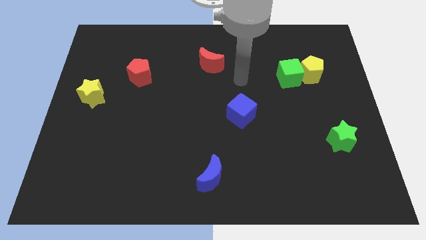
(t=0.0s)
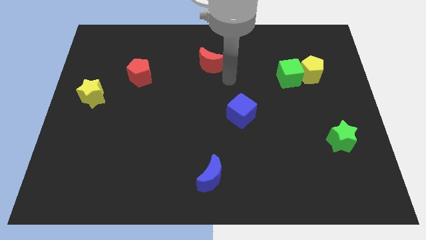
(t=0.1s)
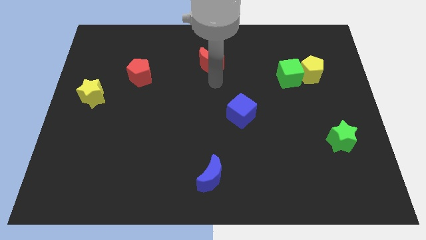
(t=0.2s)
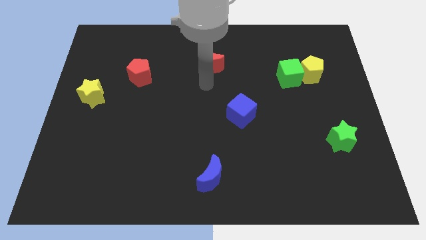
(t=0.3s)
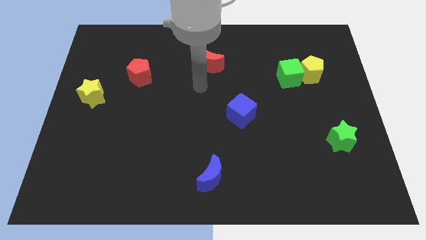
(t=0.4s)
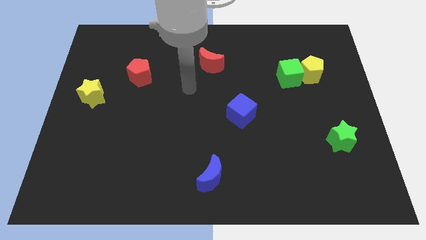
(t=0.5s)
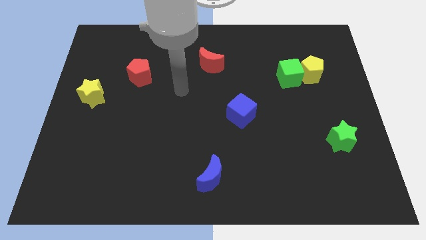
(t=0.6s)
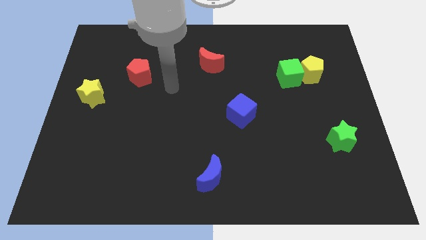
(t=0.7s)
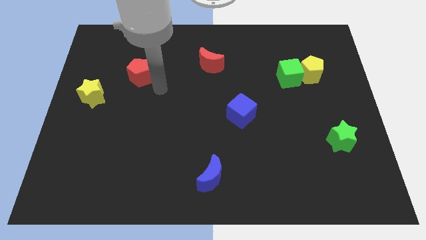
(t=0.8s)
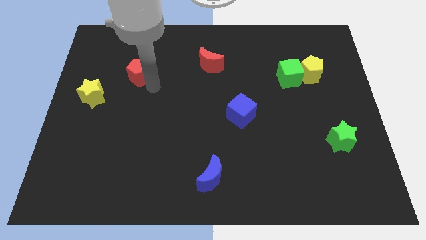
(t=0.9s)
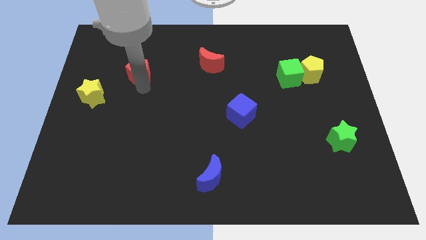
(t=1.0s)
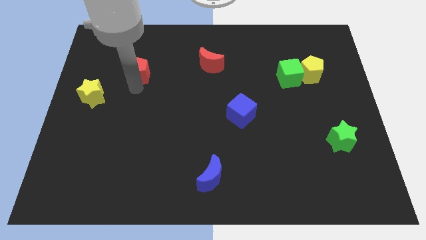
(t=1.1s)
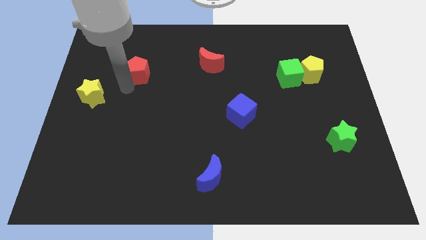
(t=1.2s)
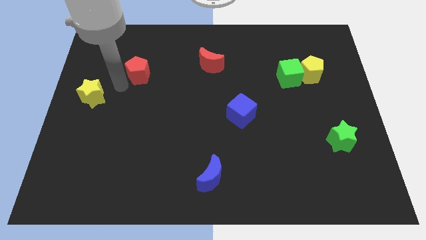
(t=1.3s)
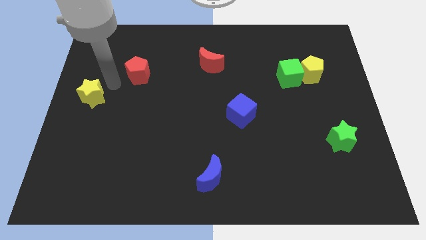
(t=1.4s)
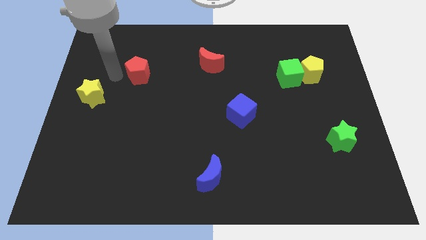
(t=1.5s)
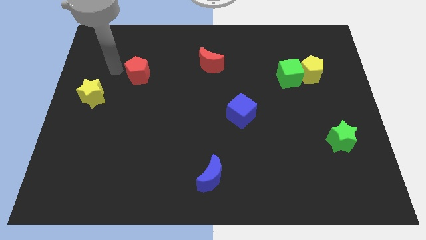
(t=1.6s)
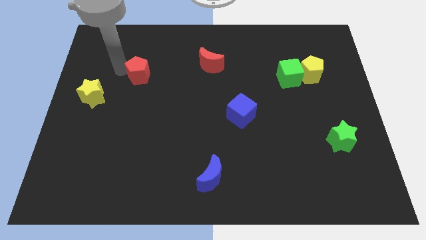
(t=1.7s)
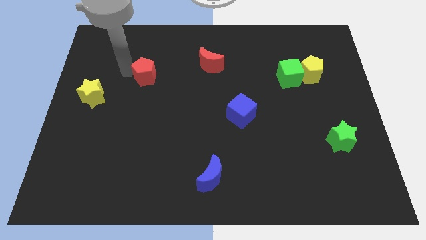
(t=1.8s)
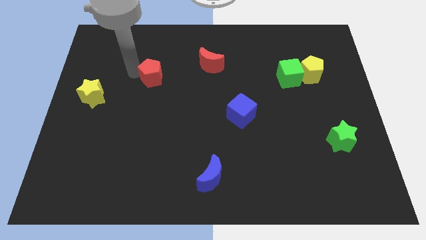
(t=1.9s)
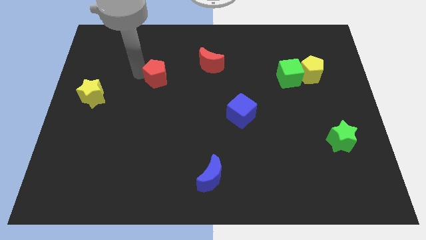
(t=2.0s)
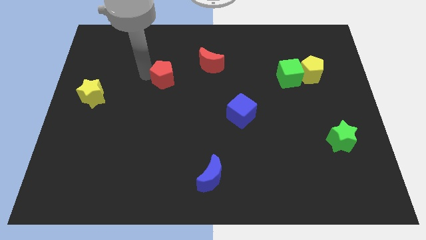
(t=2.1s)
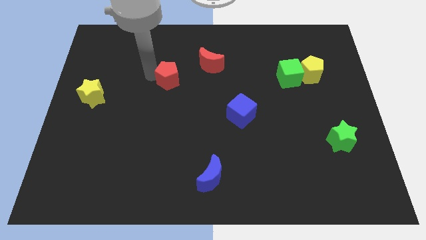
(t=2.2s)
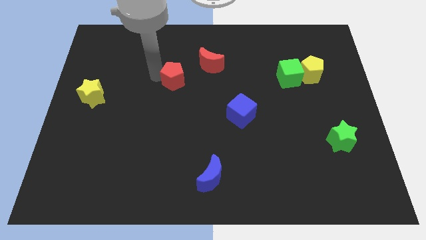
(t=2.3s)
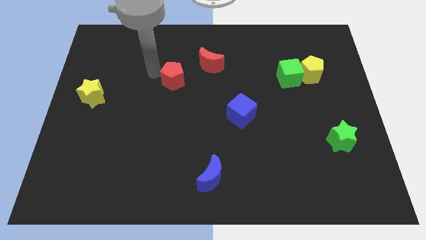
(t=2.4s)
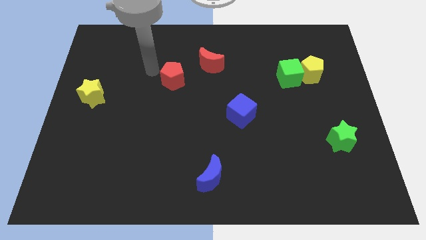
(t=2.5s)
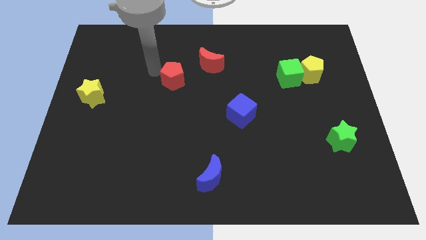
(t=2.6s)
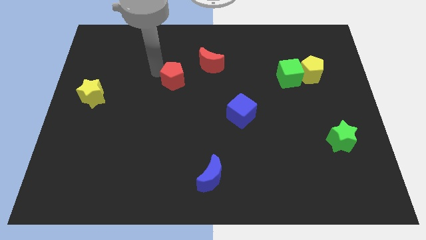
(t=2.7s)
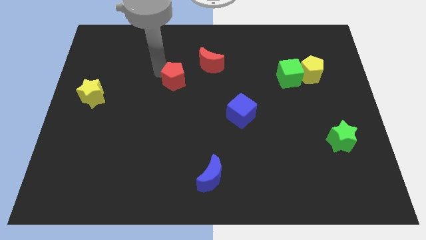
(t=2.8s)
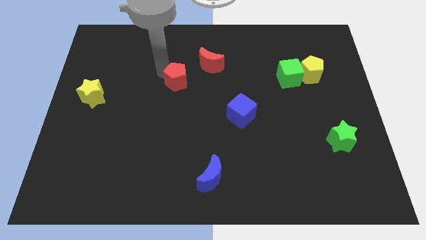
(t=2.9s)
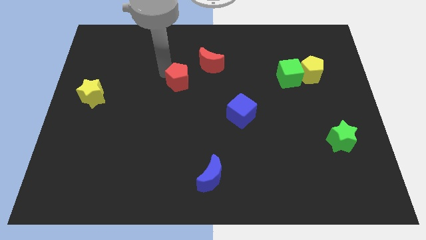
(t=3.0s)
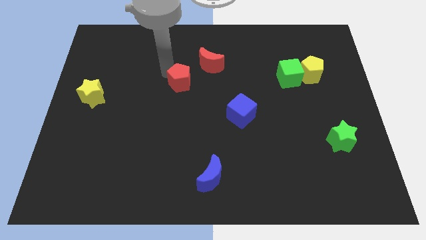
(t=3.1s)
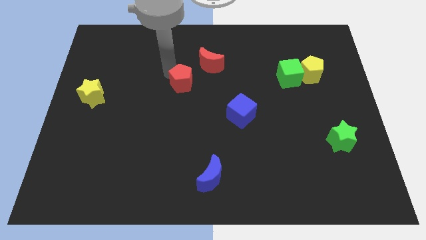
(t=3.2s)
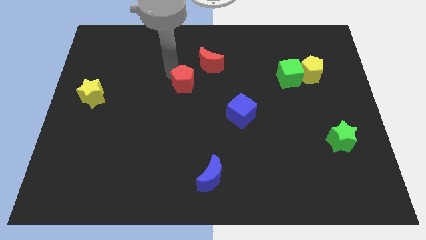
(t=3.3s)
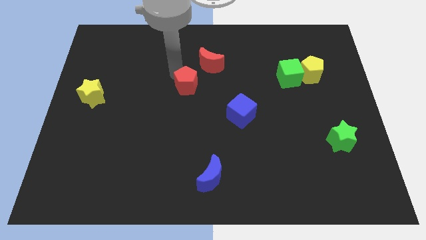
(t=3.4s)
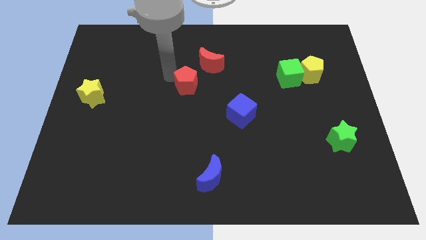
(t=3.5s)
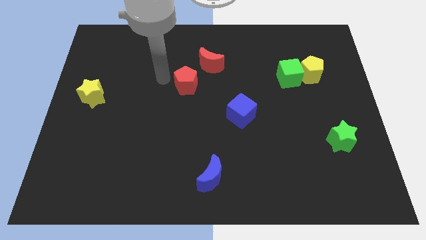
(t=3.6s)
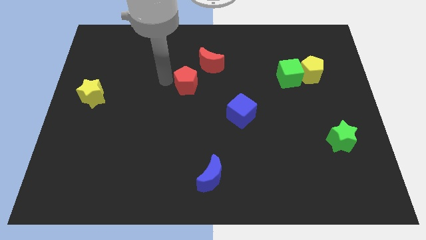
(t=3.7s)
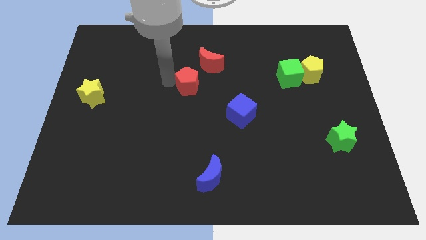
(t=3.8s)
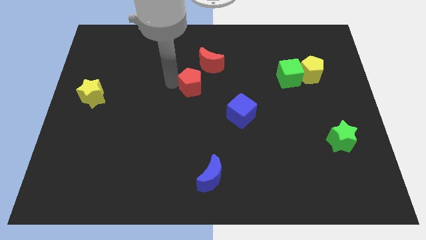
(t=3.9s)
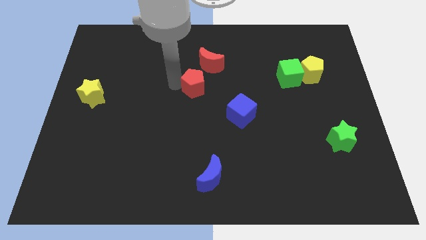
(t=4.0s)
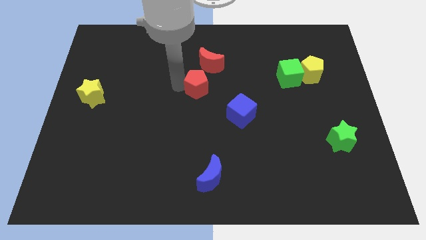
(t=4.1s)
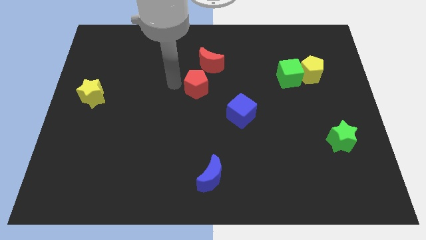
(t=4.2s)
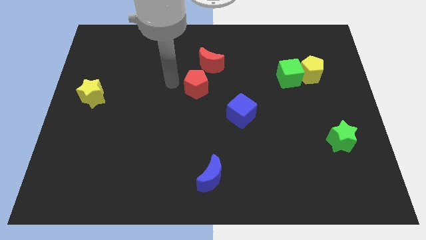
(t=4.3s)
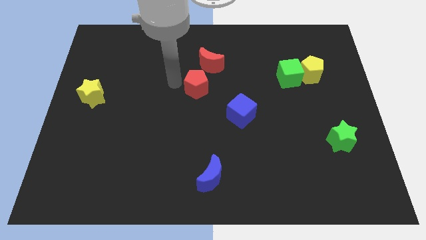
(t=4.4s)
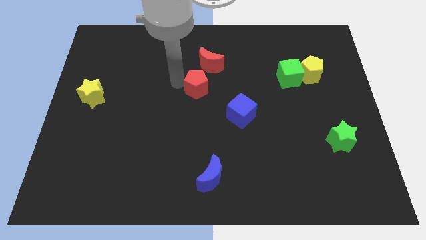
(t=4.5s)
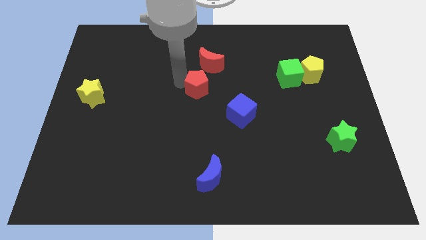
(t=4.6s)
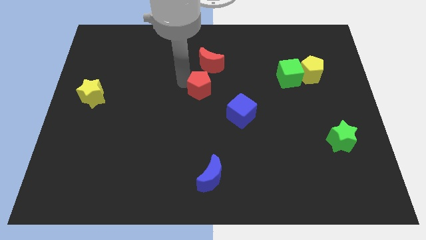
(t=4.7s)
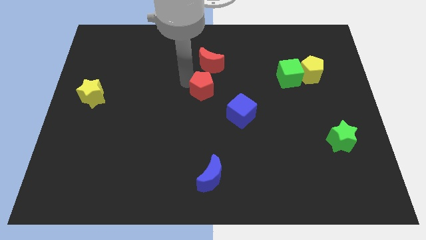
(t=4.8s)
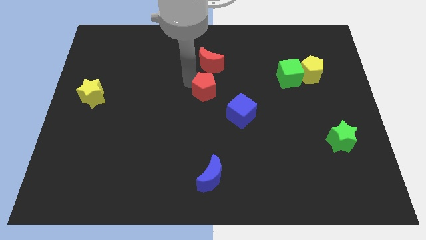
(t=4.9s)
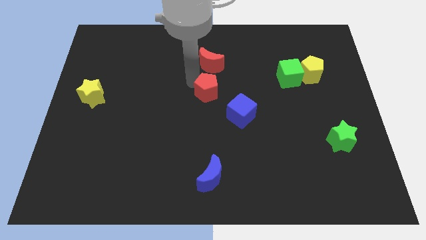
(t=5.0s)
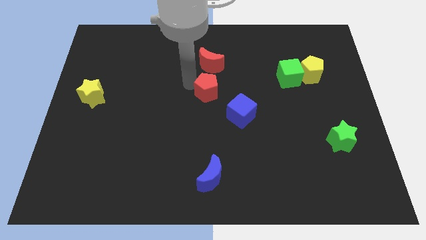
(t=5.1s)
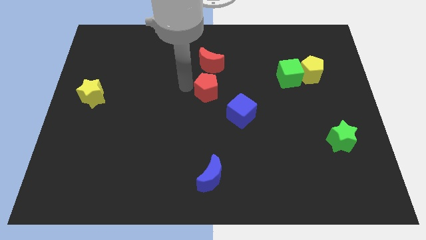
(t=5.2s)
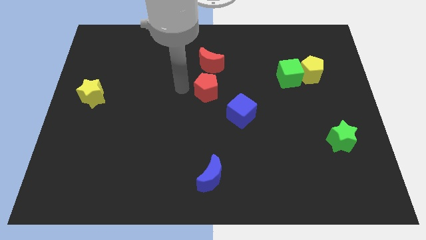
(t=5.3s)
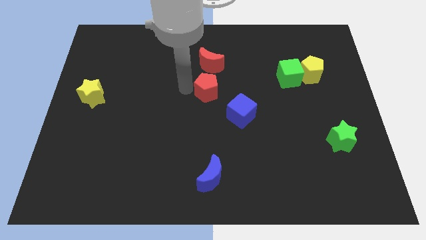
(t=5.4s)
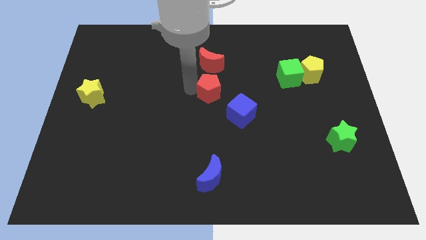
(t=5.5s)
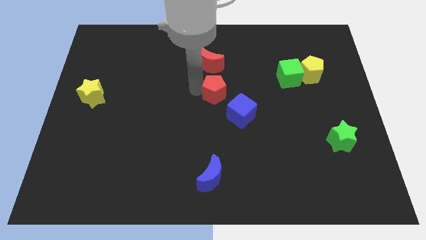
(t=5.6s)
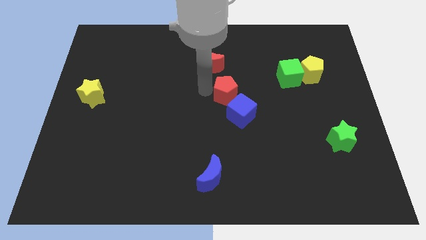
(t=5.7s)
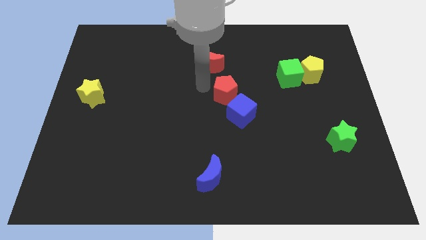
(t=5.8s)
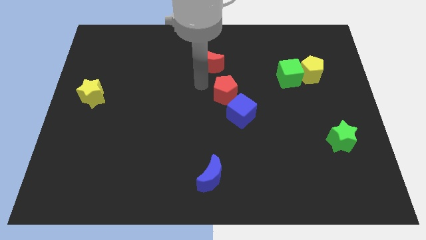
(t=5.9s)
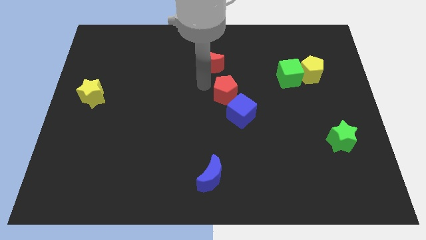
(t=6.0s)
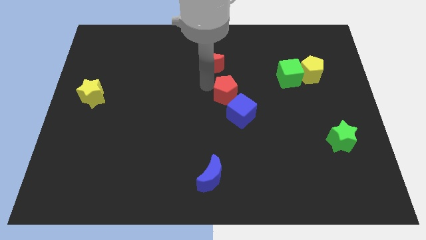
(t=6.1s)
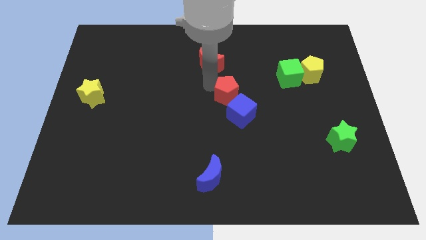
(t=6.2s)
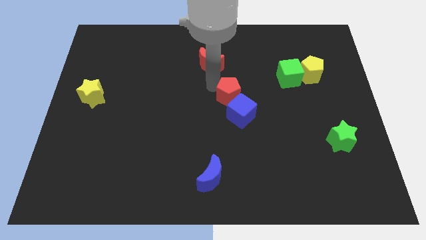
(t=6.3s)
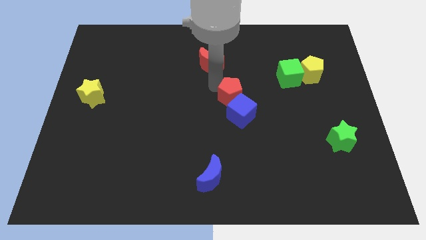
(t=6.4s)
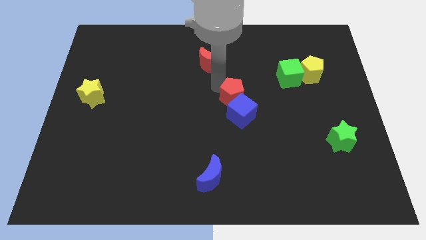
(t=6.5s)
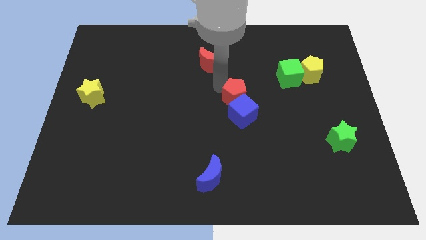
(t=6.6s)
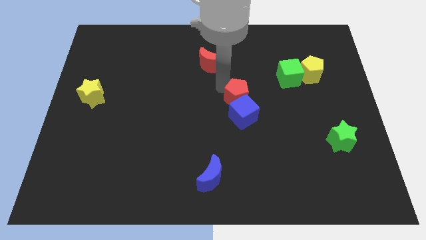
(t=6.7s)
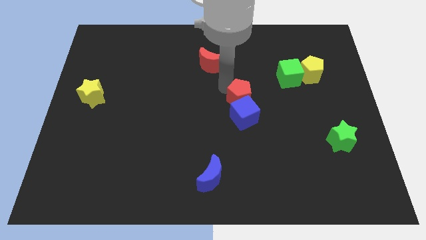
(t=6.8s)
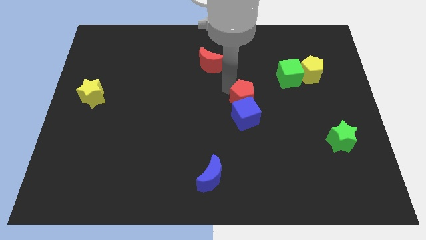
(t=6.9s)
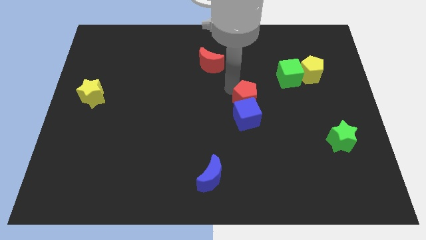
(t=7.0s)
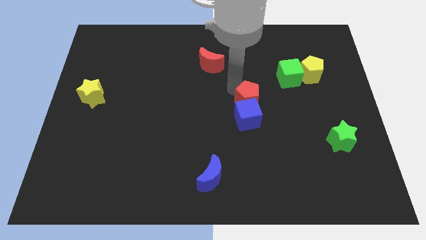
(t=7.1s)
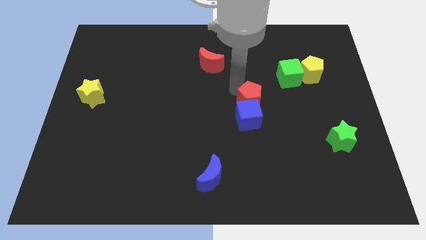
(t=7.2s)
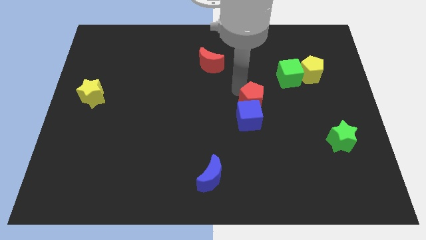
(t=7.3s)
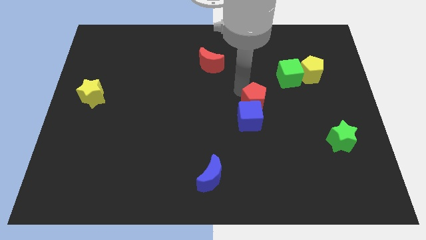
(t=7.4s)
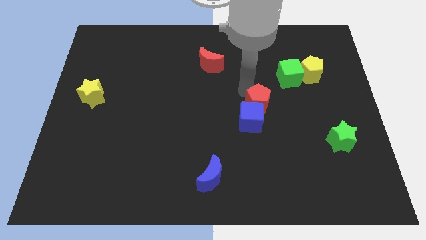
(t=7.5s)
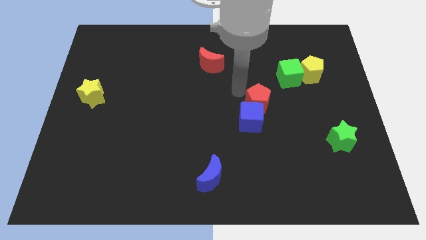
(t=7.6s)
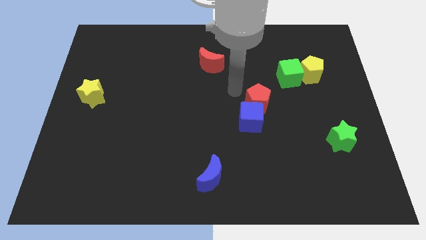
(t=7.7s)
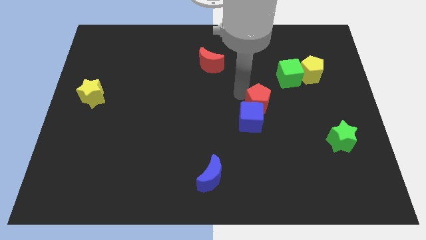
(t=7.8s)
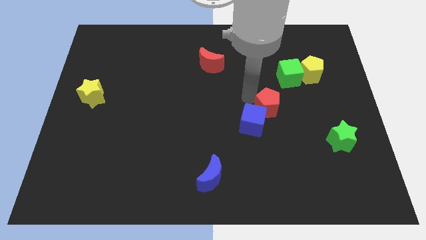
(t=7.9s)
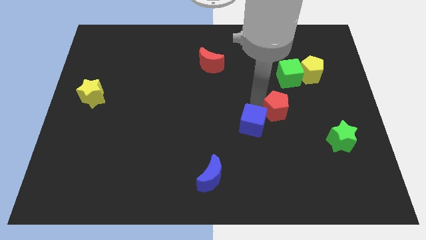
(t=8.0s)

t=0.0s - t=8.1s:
push the red pentagon to the right side of the blue cube
